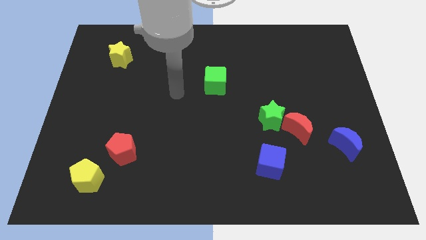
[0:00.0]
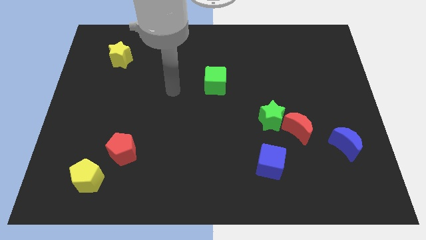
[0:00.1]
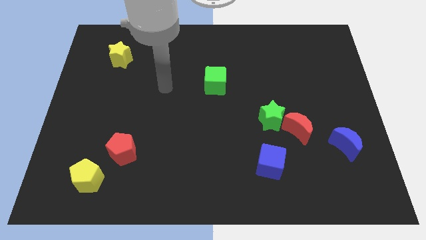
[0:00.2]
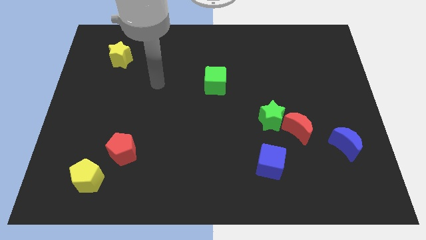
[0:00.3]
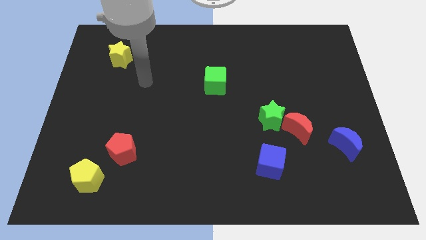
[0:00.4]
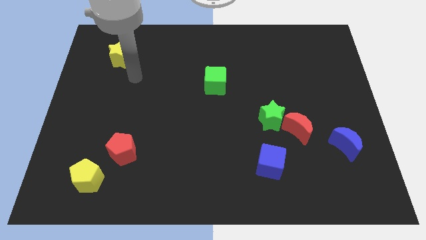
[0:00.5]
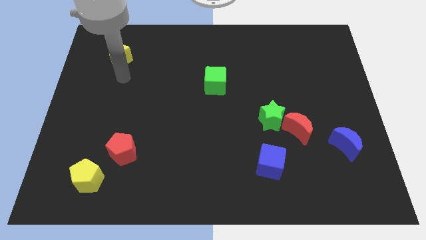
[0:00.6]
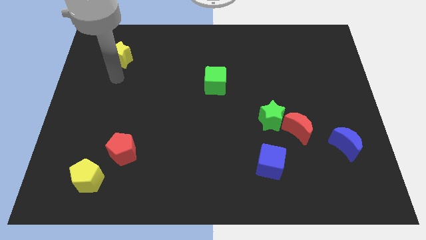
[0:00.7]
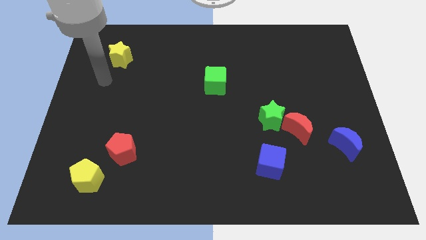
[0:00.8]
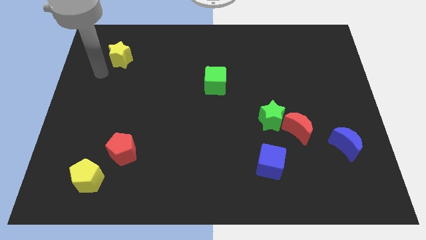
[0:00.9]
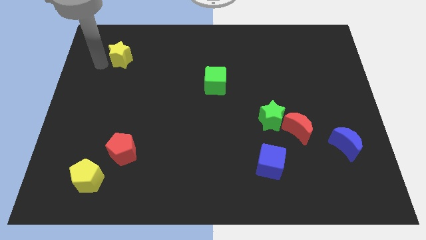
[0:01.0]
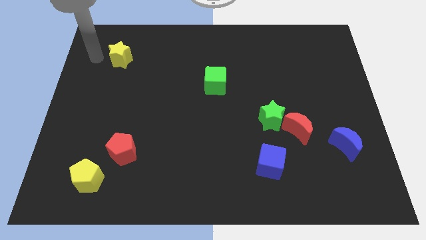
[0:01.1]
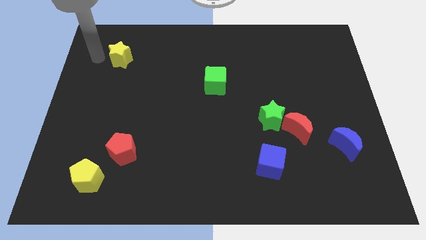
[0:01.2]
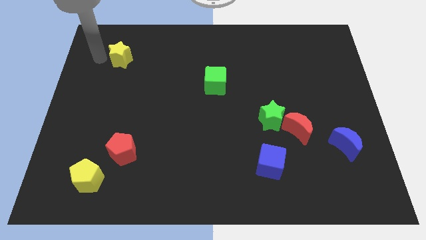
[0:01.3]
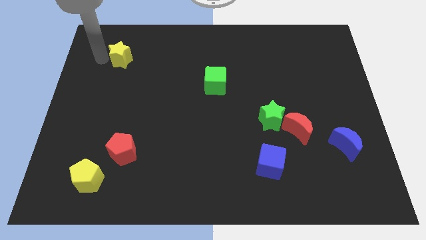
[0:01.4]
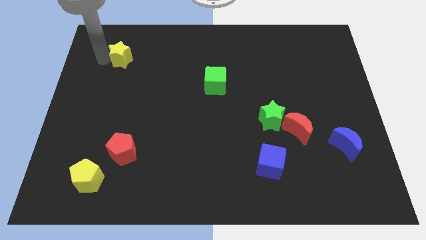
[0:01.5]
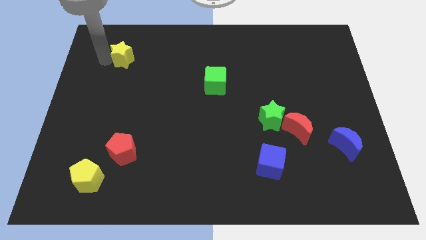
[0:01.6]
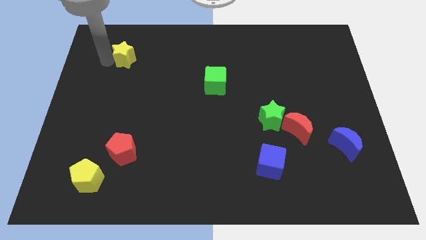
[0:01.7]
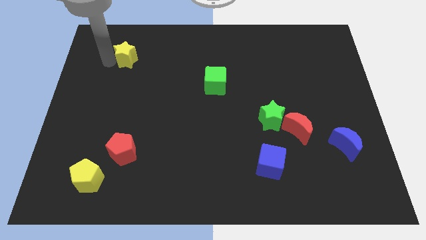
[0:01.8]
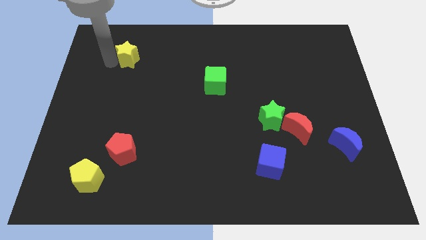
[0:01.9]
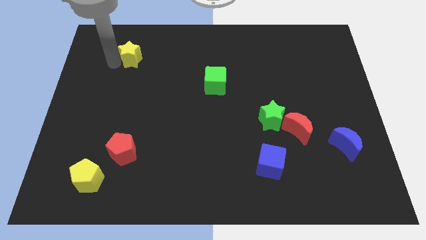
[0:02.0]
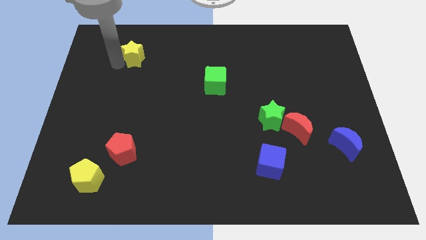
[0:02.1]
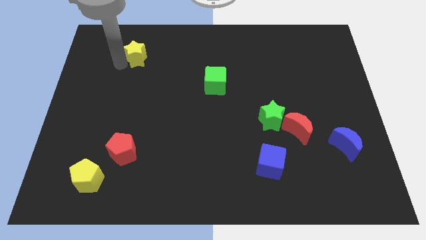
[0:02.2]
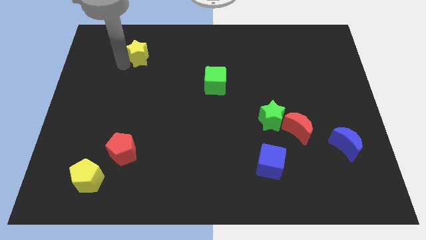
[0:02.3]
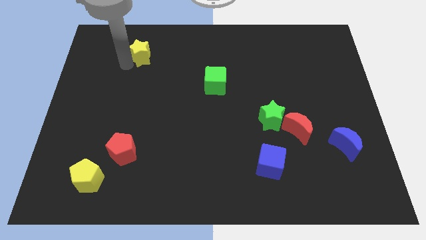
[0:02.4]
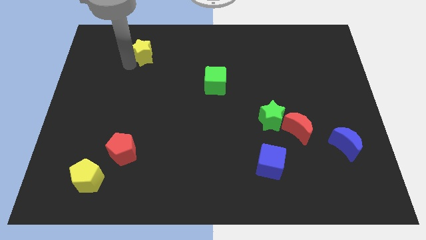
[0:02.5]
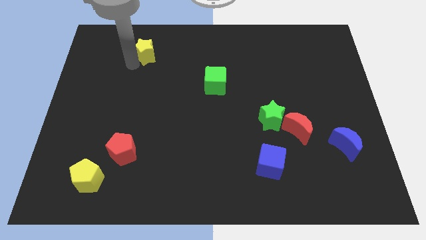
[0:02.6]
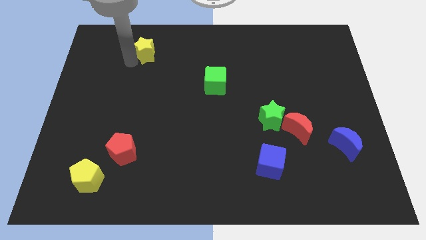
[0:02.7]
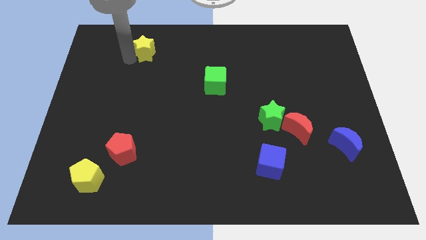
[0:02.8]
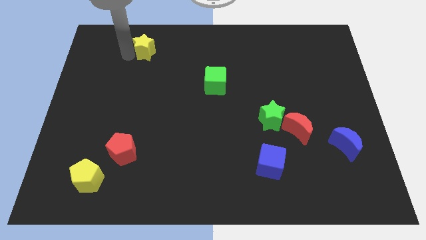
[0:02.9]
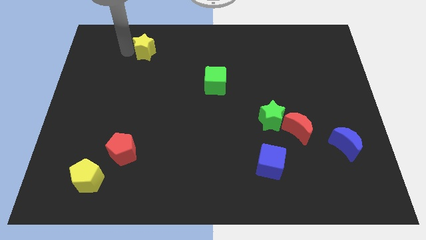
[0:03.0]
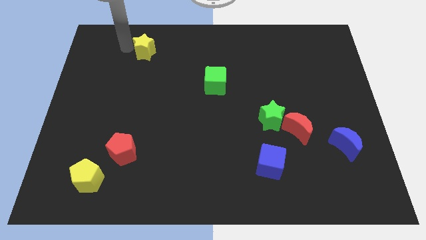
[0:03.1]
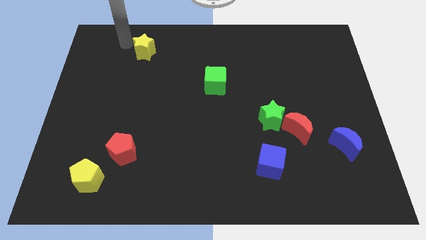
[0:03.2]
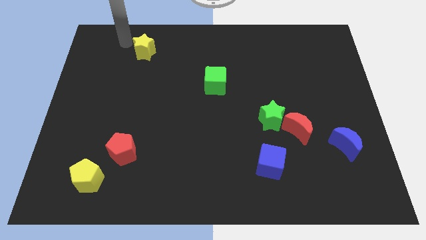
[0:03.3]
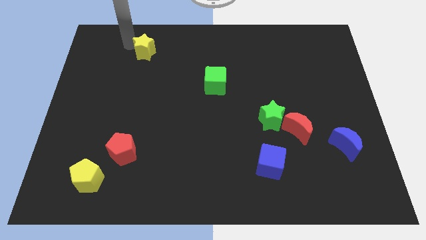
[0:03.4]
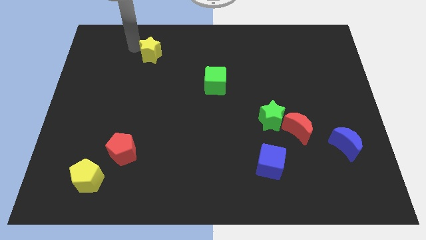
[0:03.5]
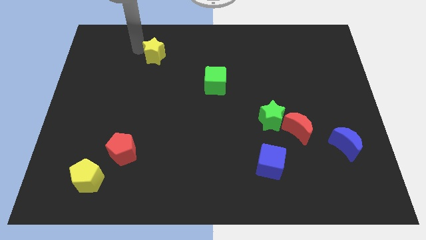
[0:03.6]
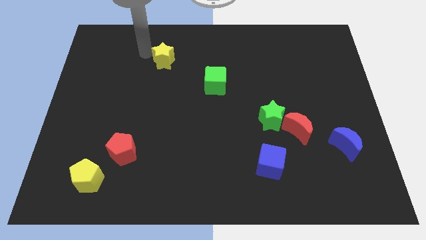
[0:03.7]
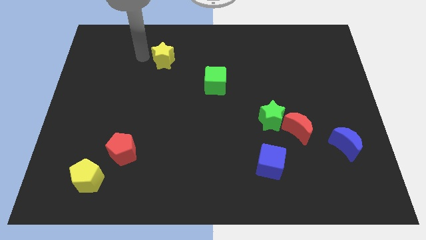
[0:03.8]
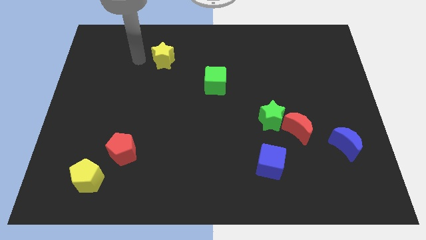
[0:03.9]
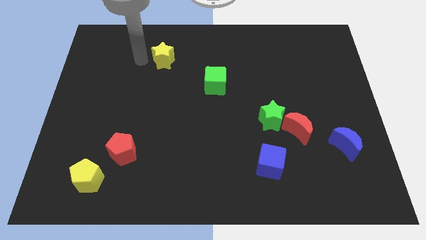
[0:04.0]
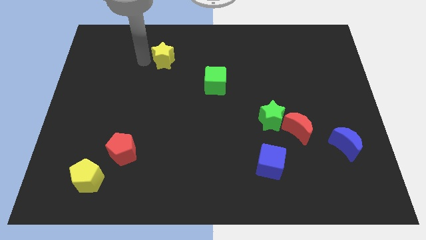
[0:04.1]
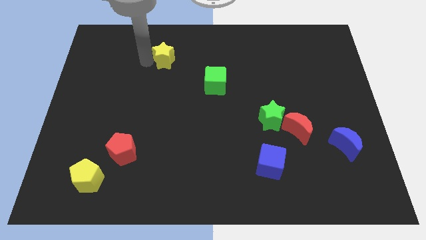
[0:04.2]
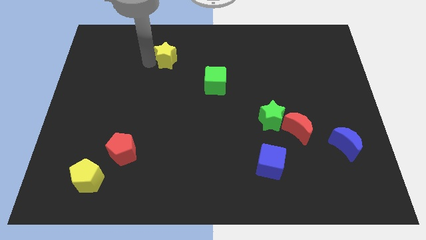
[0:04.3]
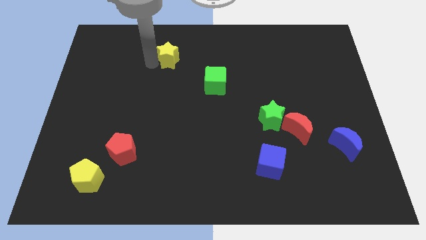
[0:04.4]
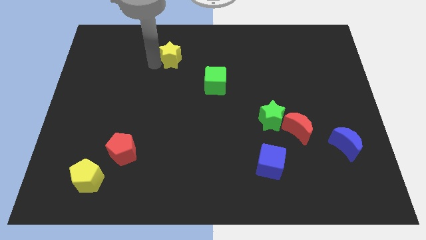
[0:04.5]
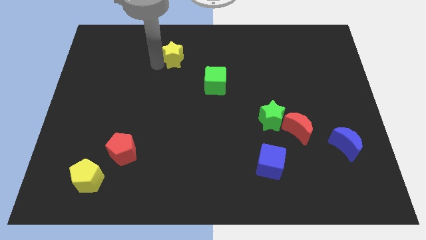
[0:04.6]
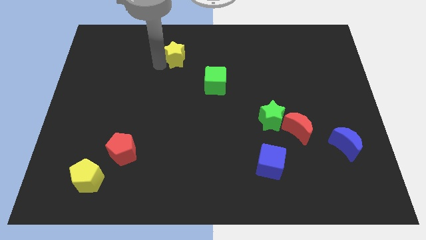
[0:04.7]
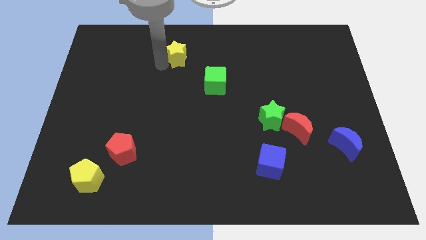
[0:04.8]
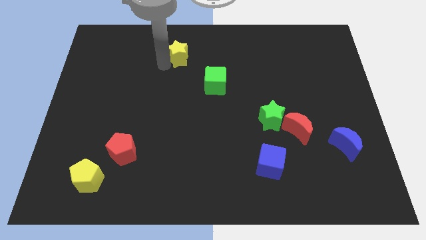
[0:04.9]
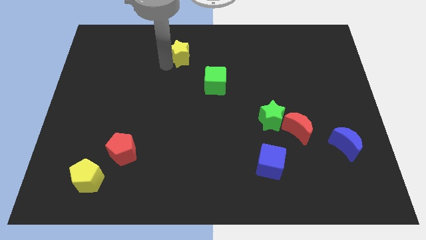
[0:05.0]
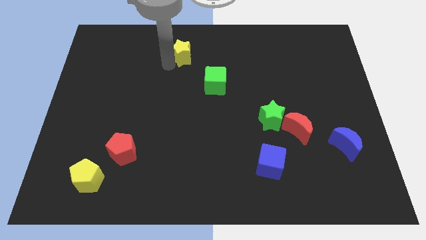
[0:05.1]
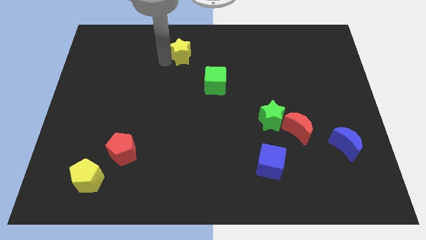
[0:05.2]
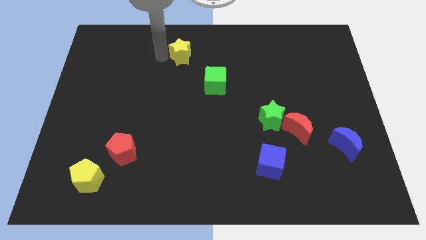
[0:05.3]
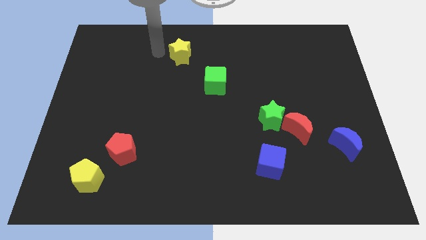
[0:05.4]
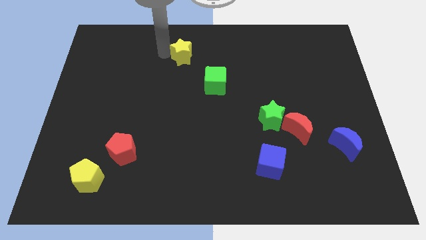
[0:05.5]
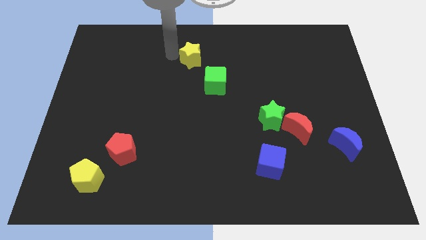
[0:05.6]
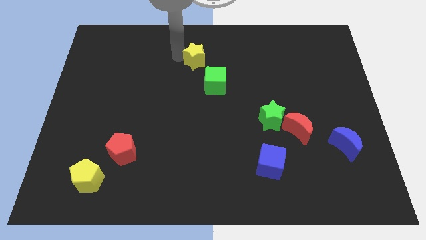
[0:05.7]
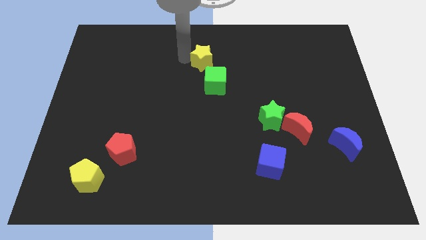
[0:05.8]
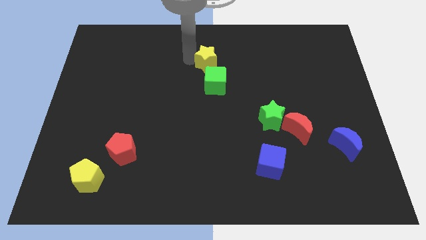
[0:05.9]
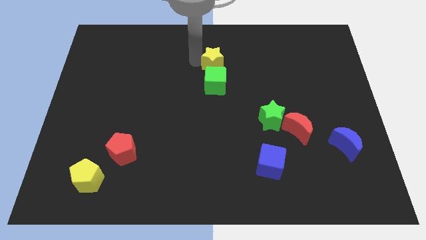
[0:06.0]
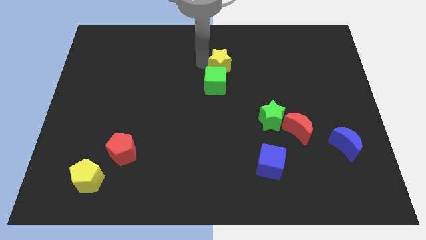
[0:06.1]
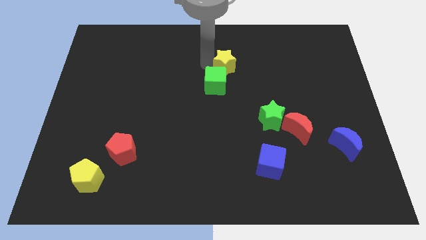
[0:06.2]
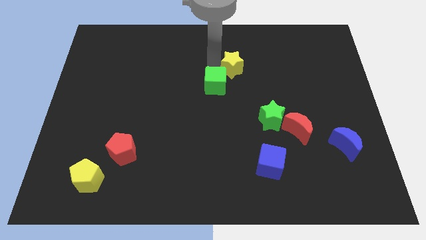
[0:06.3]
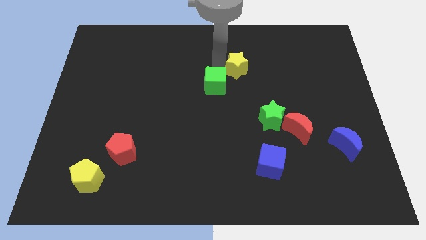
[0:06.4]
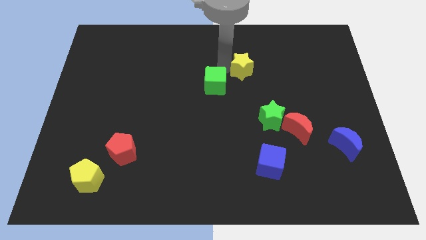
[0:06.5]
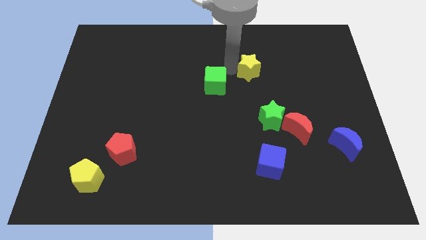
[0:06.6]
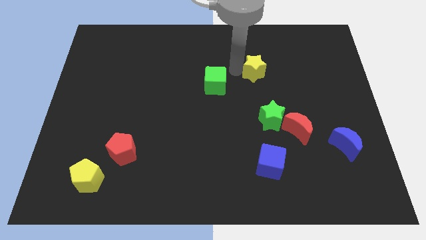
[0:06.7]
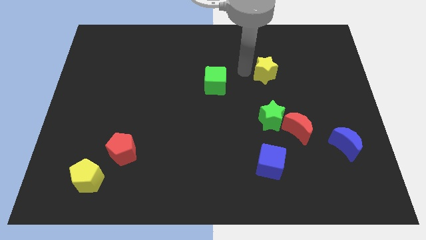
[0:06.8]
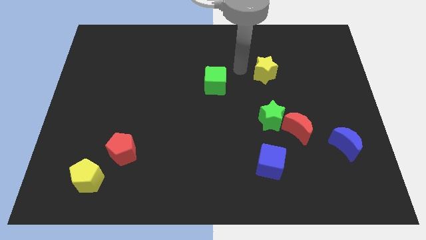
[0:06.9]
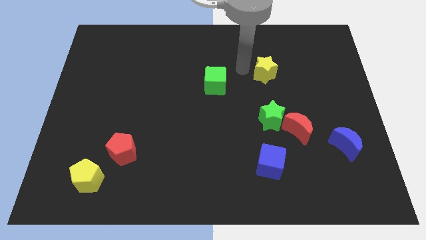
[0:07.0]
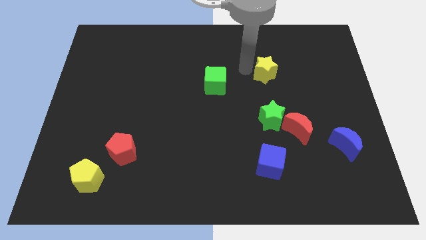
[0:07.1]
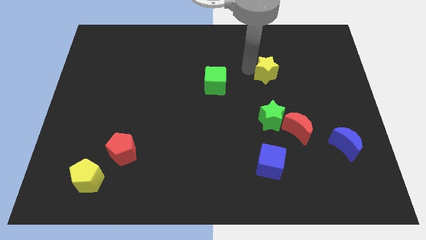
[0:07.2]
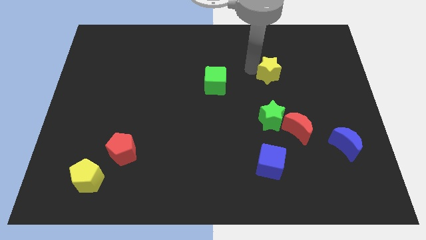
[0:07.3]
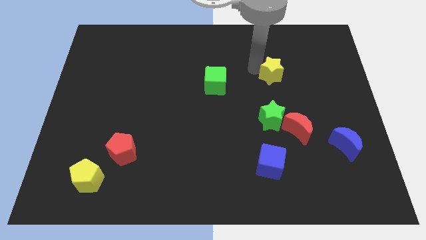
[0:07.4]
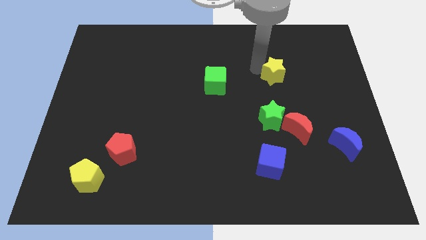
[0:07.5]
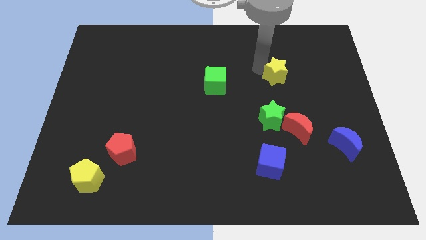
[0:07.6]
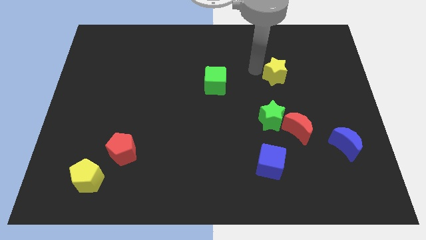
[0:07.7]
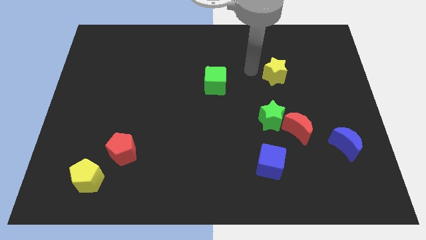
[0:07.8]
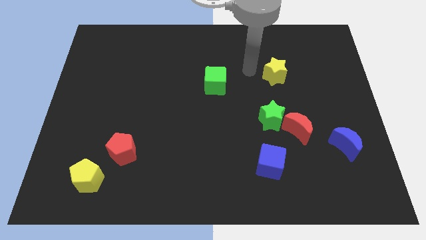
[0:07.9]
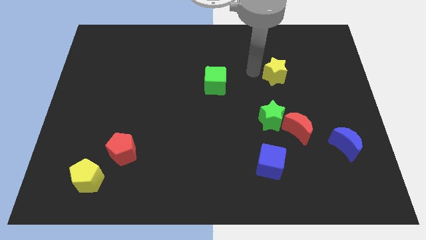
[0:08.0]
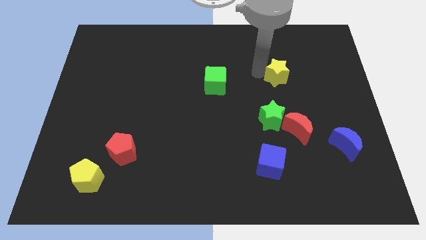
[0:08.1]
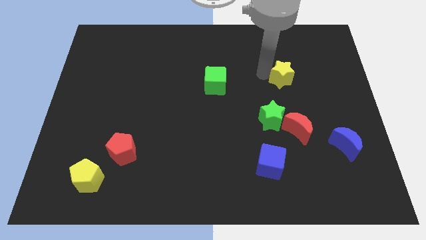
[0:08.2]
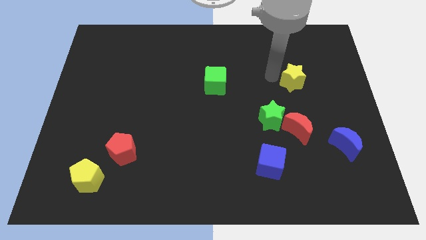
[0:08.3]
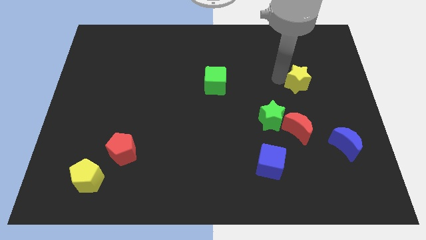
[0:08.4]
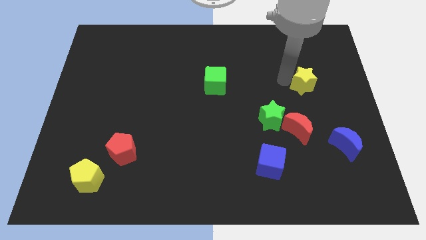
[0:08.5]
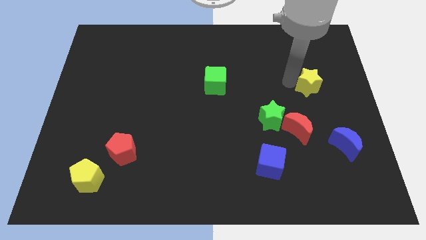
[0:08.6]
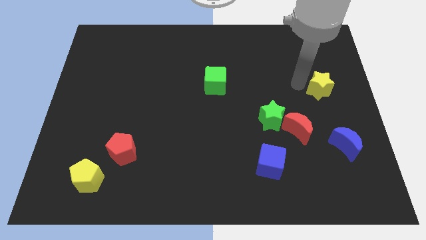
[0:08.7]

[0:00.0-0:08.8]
push the yellow star to the right side of the board
